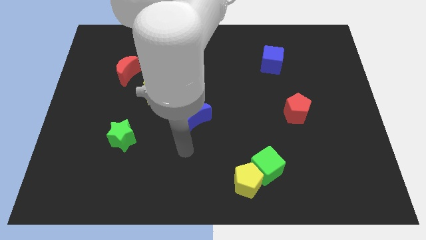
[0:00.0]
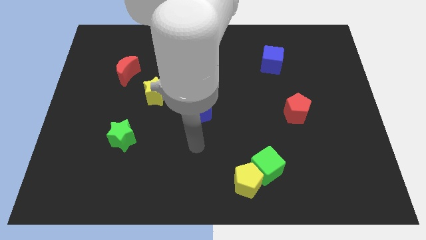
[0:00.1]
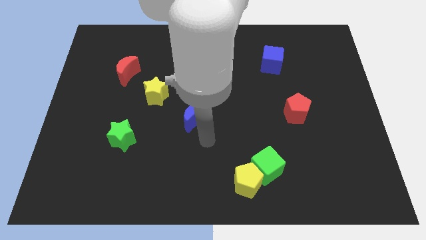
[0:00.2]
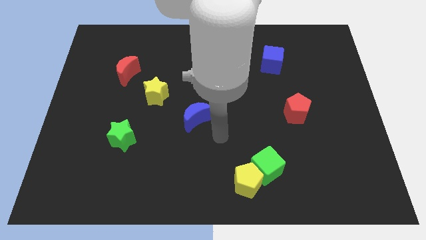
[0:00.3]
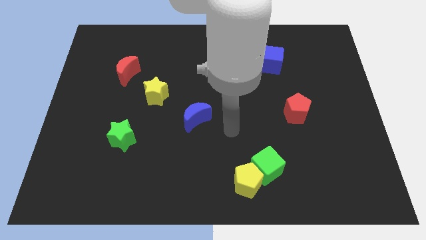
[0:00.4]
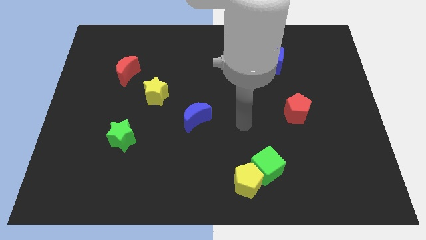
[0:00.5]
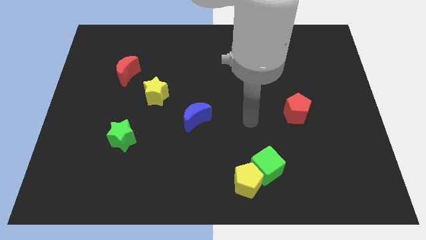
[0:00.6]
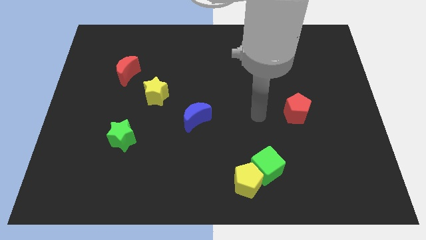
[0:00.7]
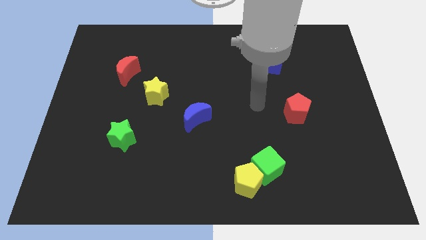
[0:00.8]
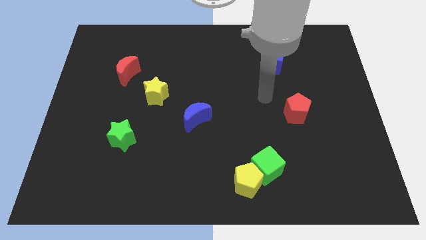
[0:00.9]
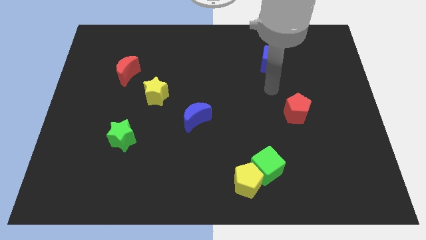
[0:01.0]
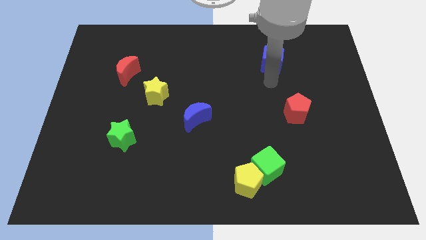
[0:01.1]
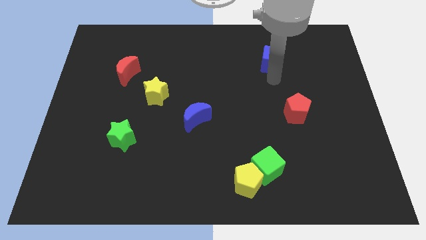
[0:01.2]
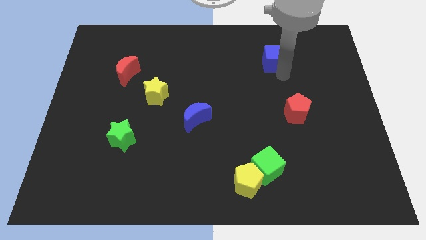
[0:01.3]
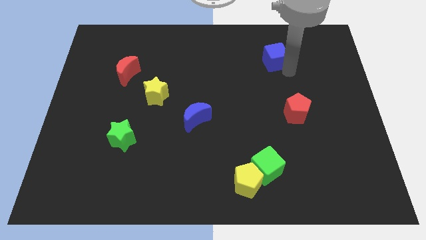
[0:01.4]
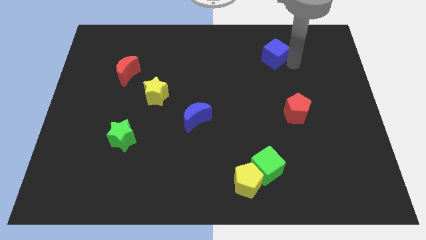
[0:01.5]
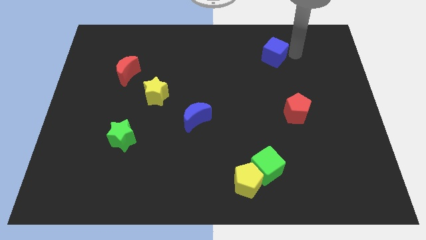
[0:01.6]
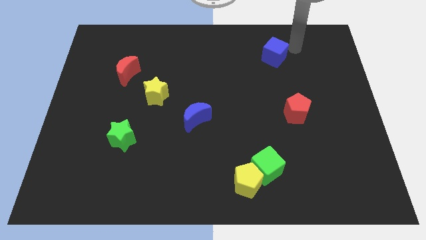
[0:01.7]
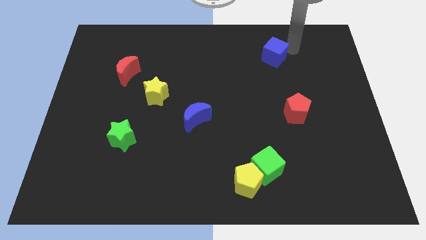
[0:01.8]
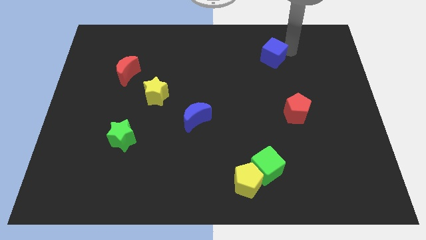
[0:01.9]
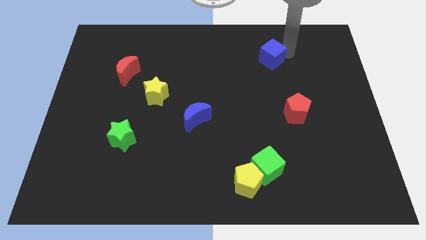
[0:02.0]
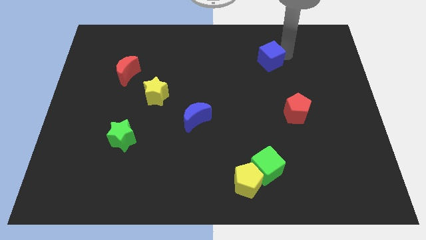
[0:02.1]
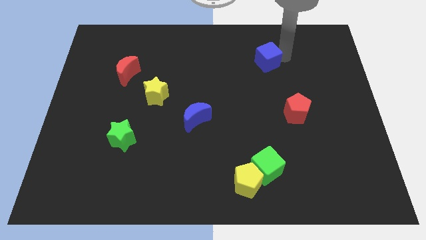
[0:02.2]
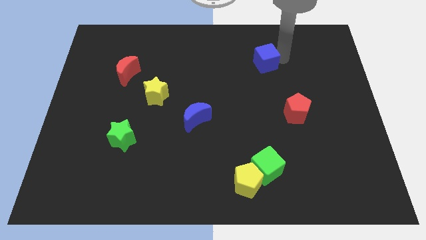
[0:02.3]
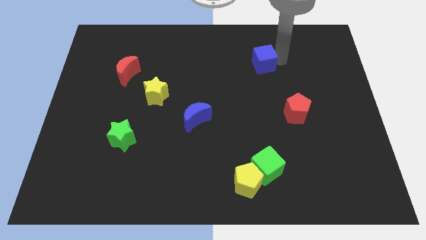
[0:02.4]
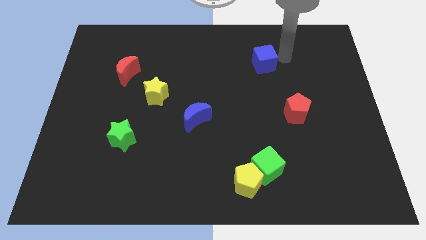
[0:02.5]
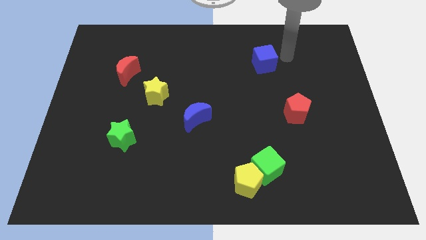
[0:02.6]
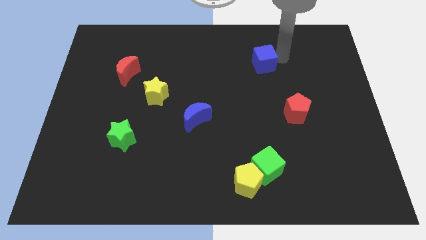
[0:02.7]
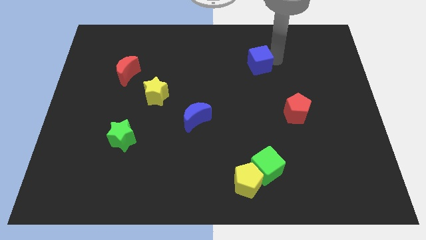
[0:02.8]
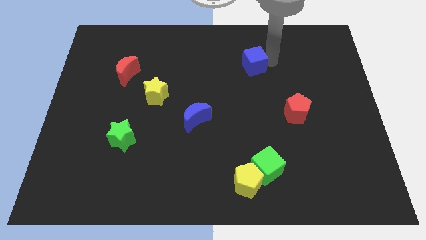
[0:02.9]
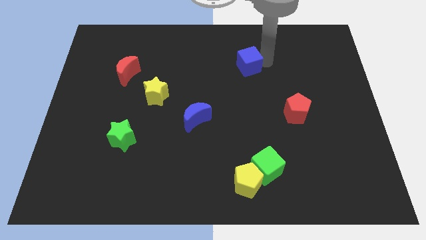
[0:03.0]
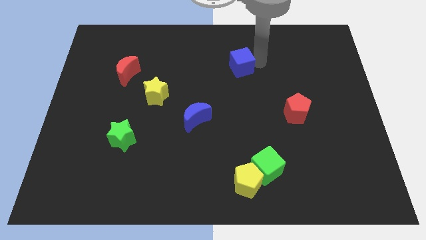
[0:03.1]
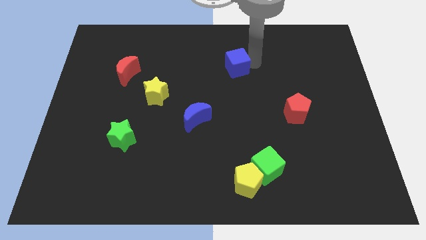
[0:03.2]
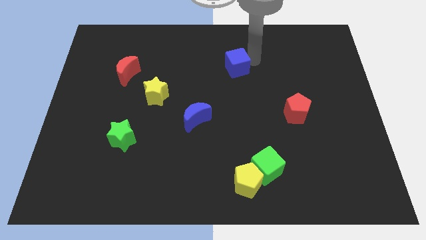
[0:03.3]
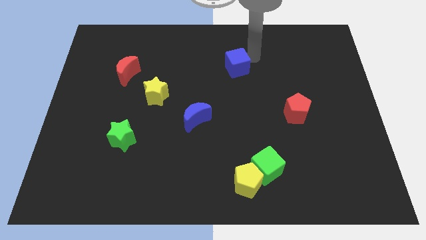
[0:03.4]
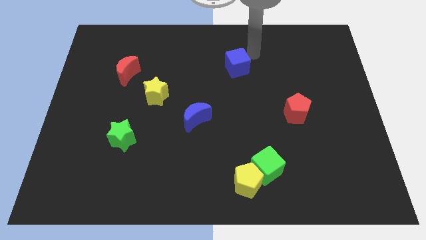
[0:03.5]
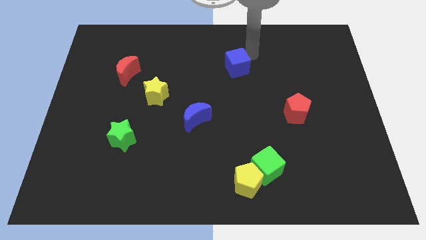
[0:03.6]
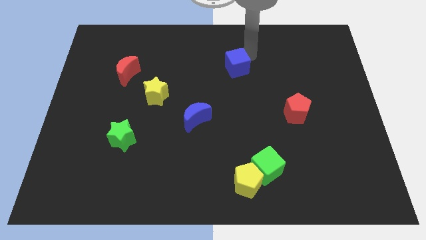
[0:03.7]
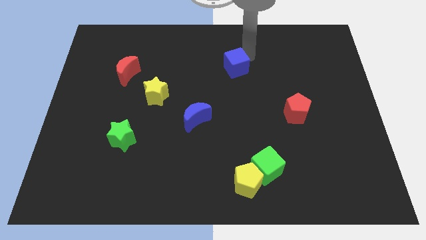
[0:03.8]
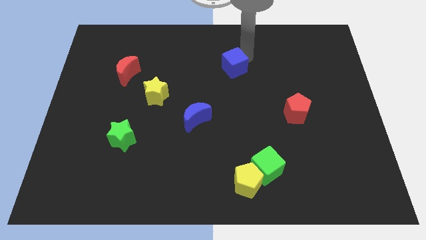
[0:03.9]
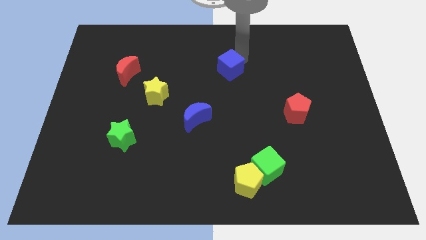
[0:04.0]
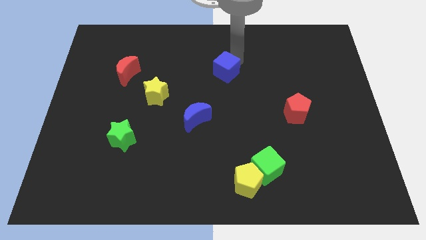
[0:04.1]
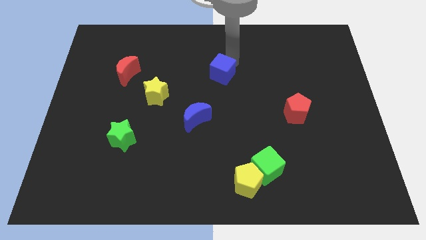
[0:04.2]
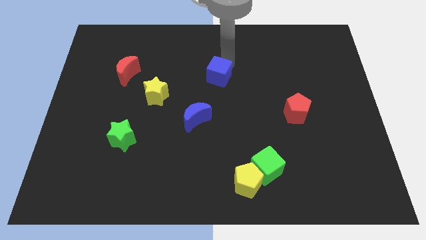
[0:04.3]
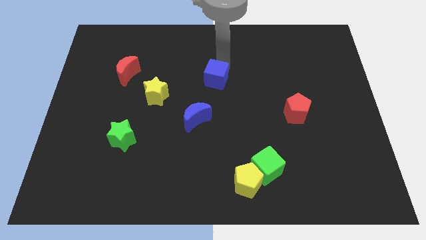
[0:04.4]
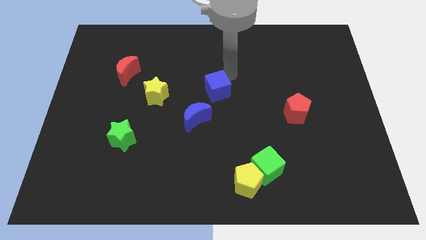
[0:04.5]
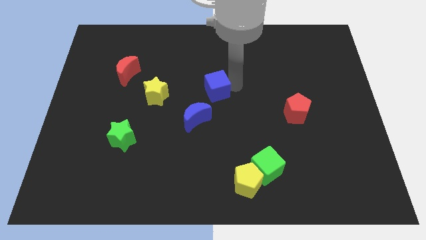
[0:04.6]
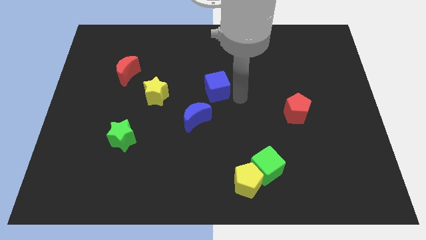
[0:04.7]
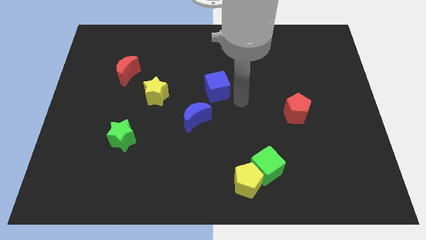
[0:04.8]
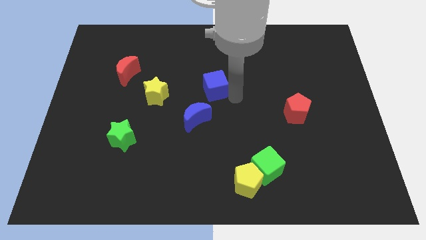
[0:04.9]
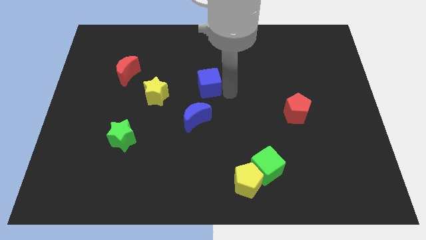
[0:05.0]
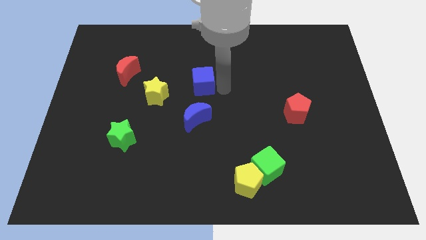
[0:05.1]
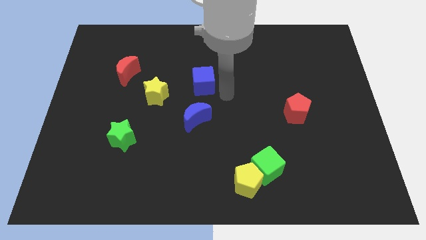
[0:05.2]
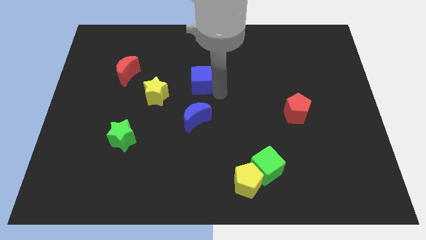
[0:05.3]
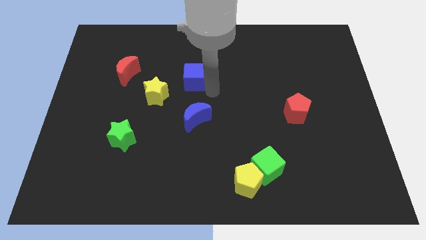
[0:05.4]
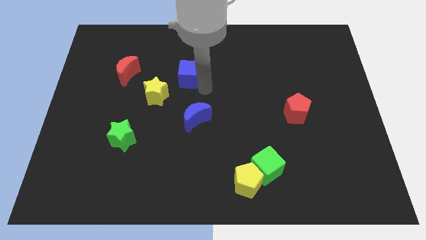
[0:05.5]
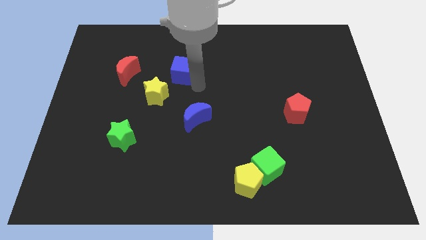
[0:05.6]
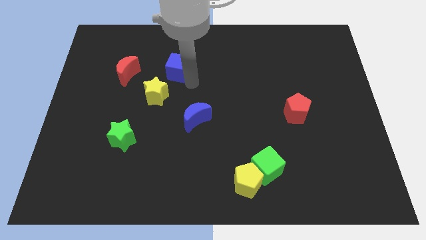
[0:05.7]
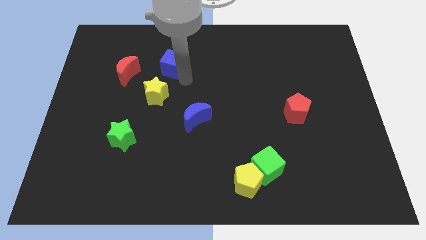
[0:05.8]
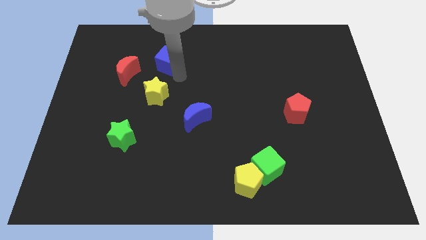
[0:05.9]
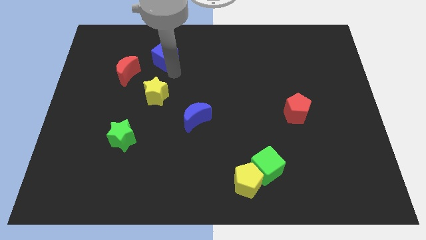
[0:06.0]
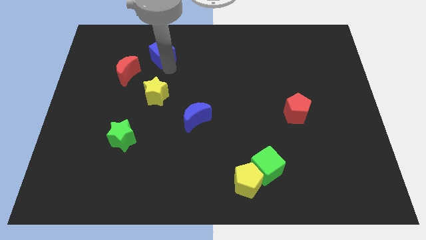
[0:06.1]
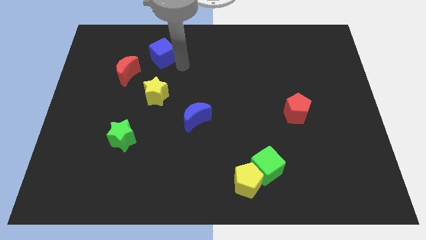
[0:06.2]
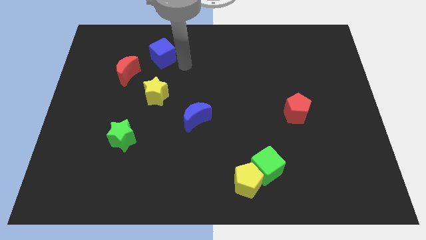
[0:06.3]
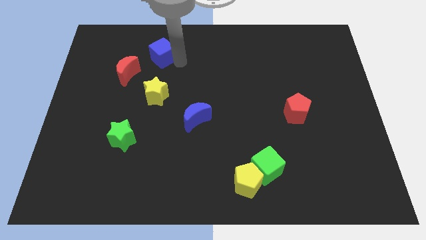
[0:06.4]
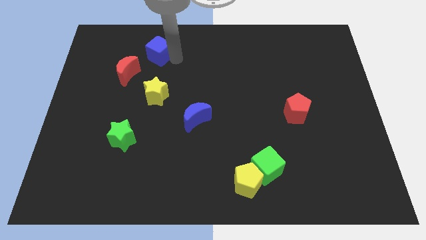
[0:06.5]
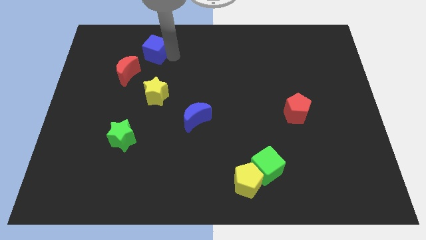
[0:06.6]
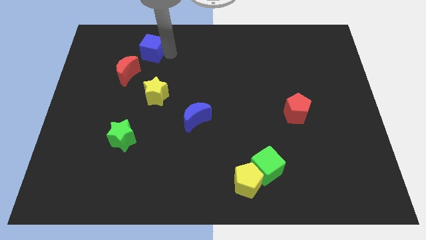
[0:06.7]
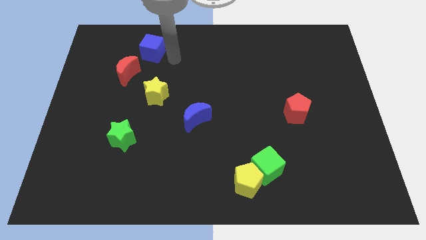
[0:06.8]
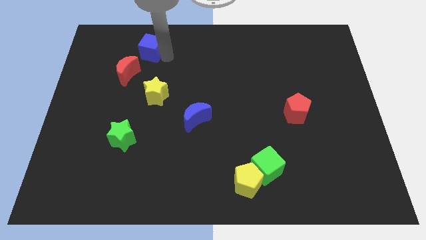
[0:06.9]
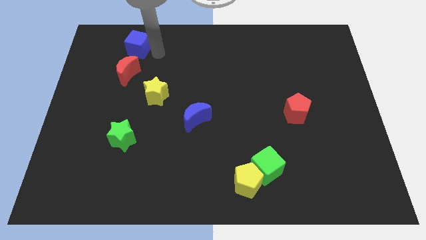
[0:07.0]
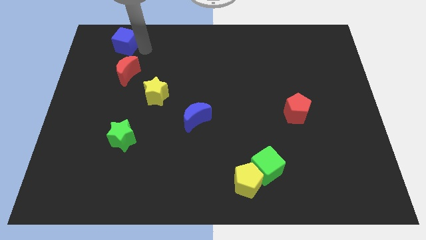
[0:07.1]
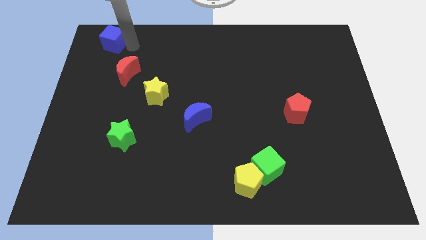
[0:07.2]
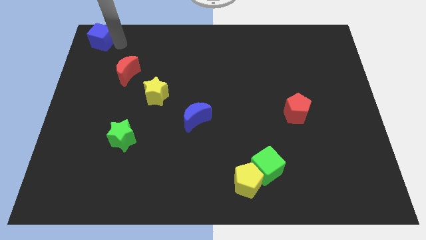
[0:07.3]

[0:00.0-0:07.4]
put the blue cube to the upper left corner
